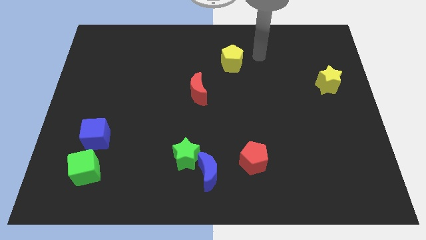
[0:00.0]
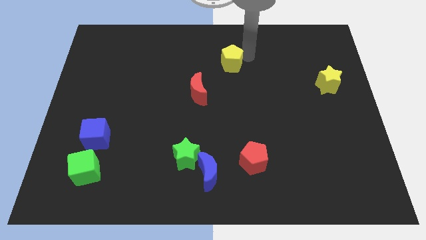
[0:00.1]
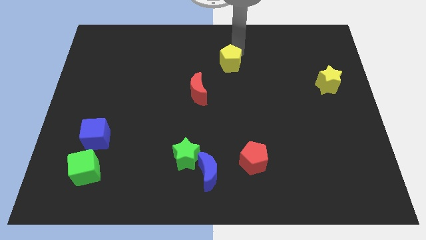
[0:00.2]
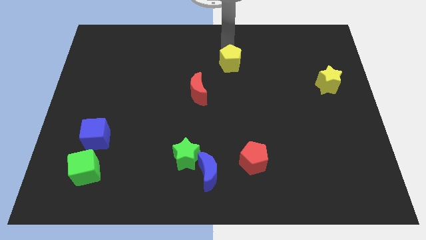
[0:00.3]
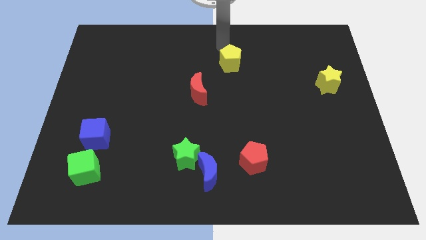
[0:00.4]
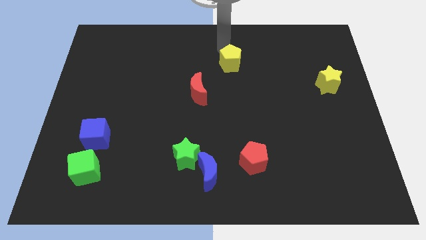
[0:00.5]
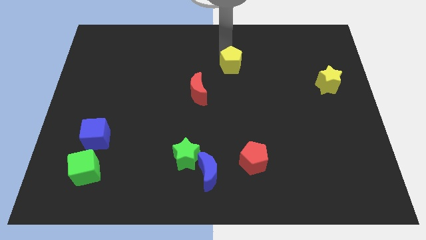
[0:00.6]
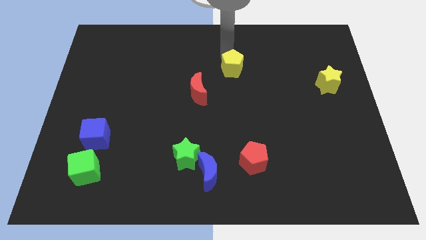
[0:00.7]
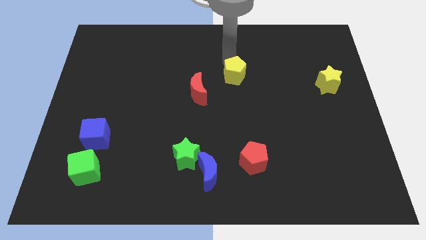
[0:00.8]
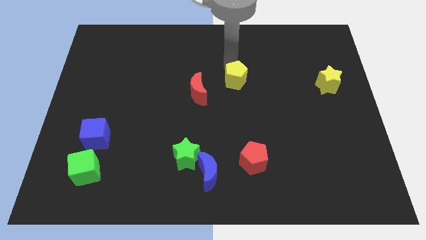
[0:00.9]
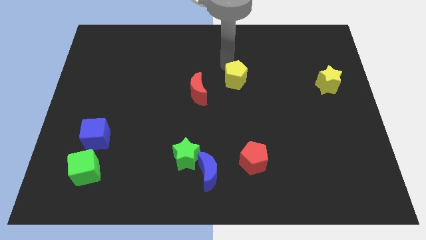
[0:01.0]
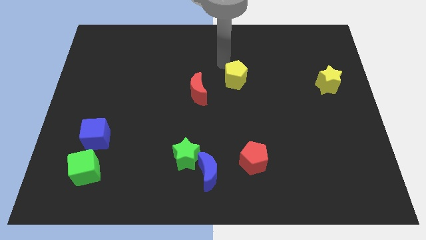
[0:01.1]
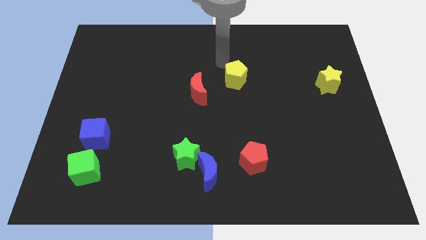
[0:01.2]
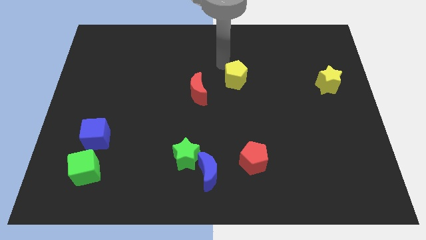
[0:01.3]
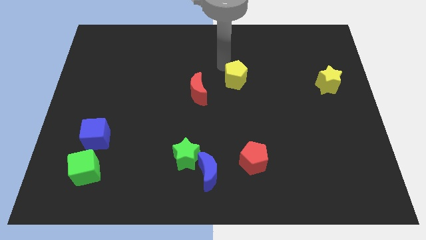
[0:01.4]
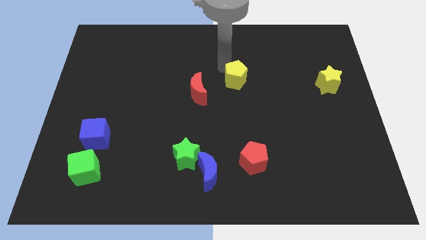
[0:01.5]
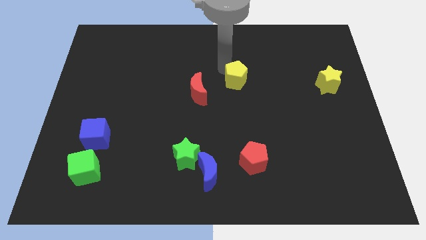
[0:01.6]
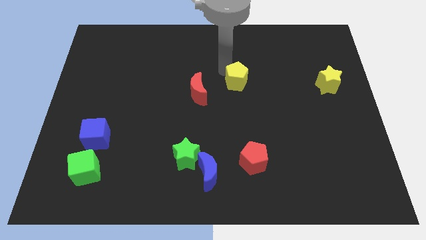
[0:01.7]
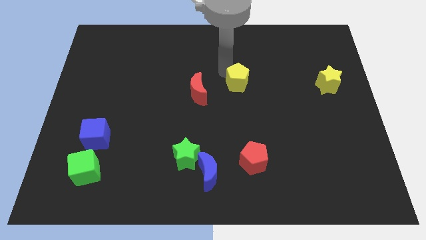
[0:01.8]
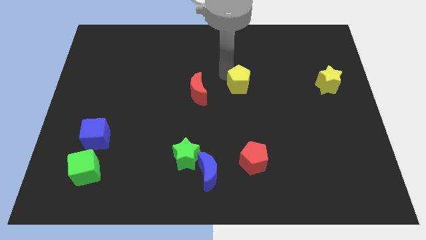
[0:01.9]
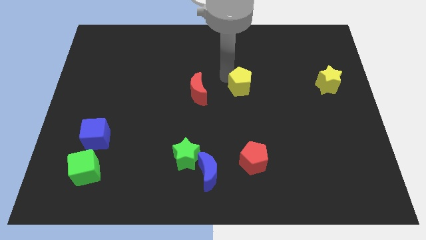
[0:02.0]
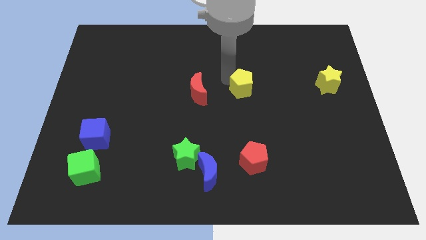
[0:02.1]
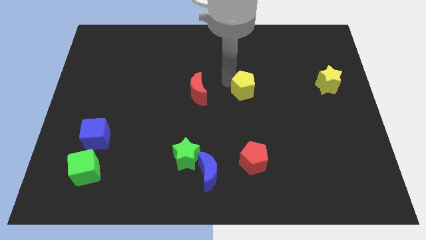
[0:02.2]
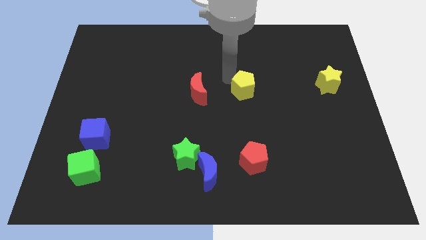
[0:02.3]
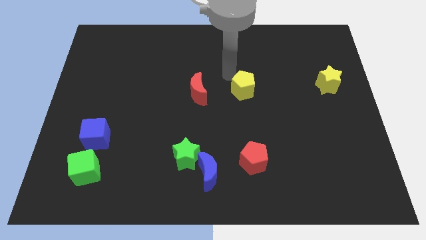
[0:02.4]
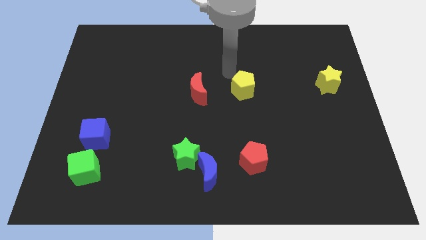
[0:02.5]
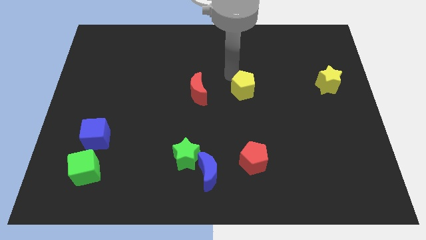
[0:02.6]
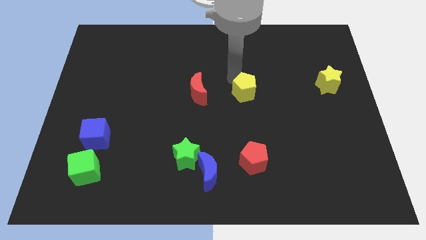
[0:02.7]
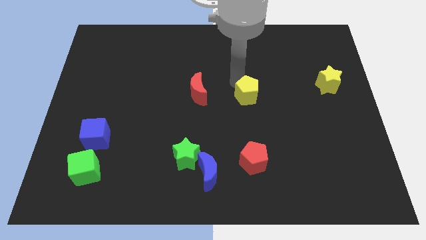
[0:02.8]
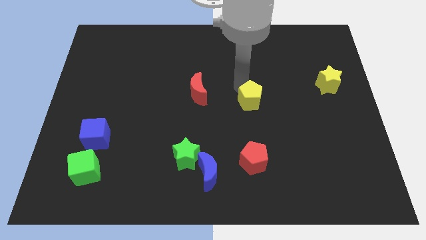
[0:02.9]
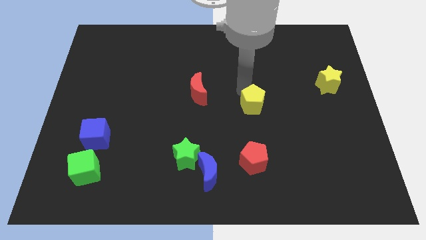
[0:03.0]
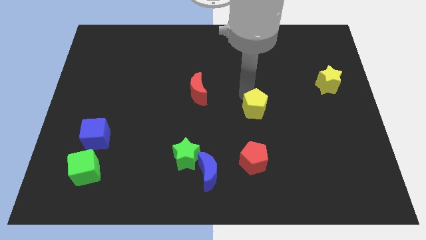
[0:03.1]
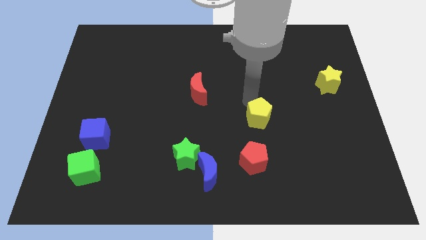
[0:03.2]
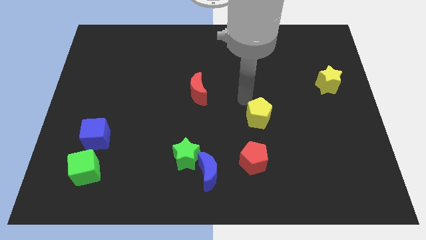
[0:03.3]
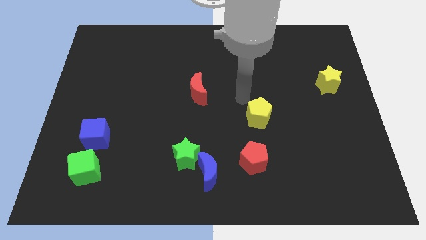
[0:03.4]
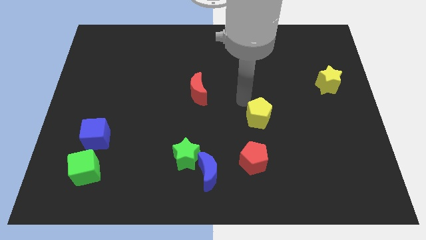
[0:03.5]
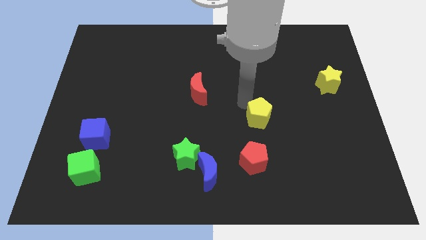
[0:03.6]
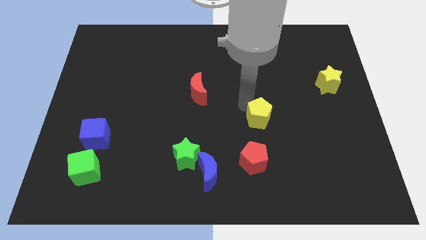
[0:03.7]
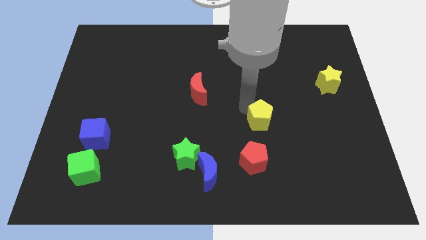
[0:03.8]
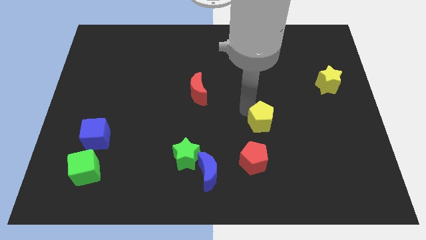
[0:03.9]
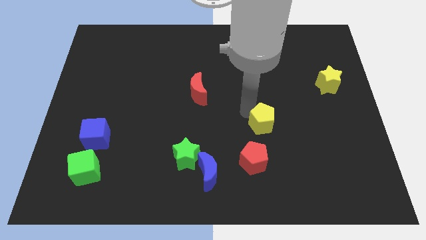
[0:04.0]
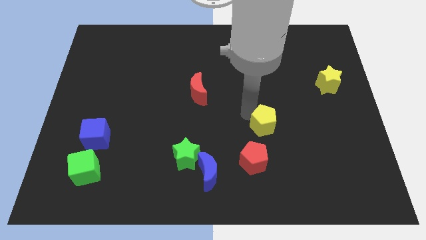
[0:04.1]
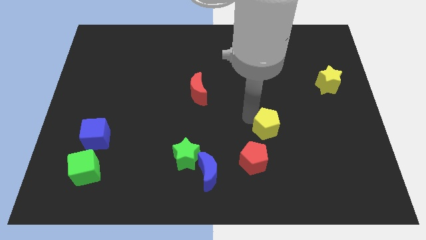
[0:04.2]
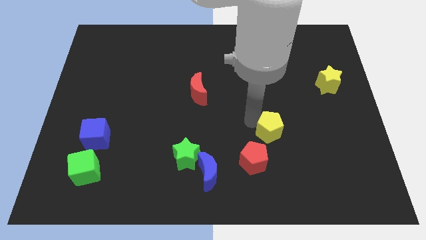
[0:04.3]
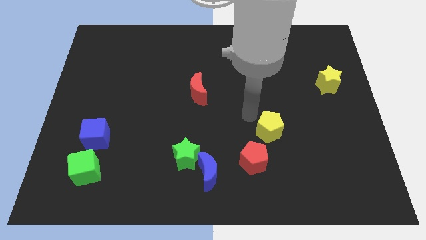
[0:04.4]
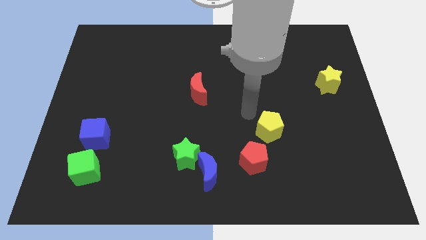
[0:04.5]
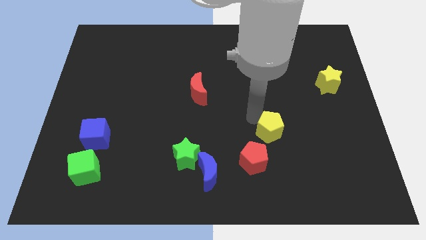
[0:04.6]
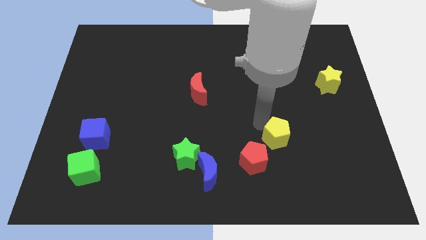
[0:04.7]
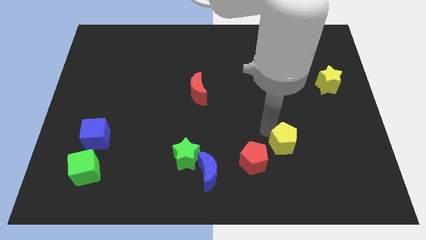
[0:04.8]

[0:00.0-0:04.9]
push the yellow pentagon to the right side of the red pentagon

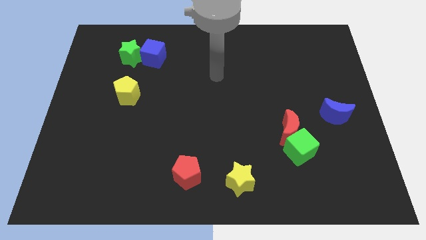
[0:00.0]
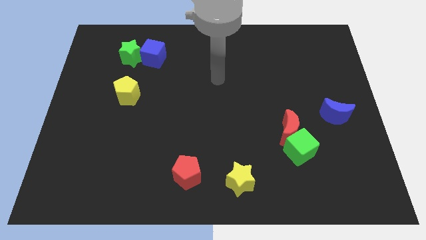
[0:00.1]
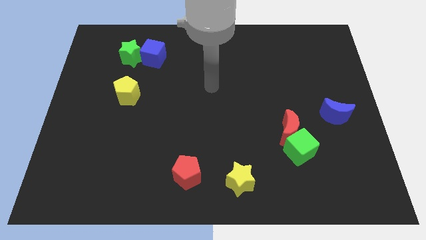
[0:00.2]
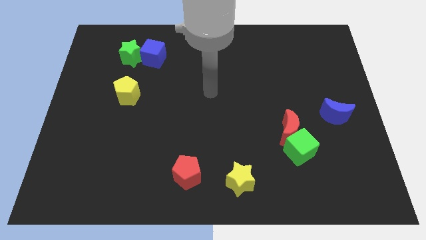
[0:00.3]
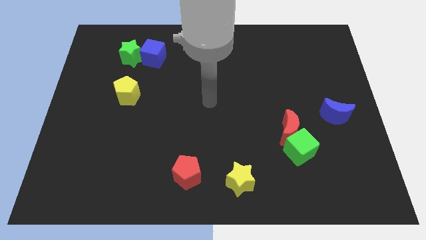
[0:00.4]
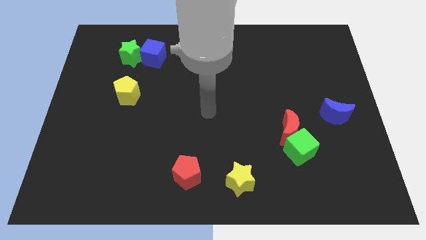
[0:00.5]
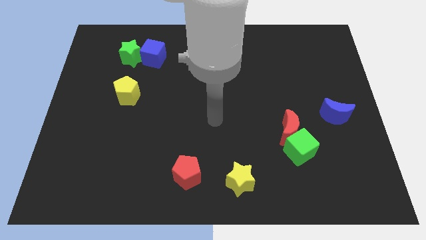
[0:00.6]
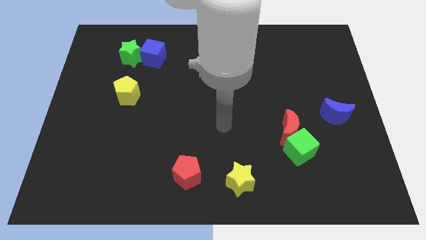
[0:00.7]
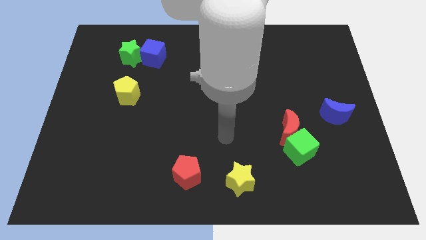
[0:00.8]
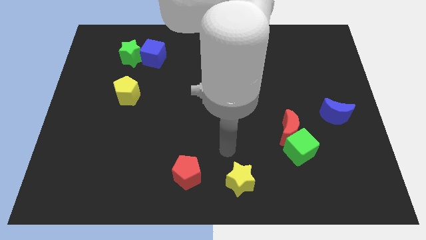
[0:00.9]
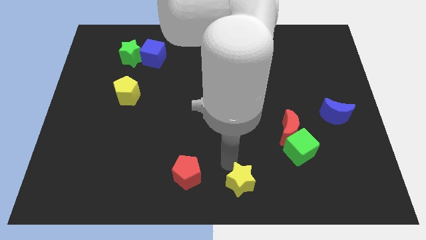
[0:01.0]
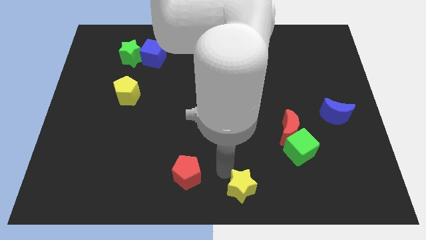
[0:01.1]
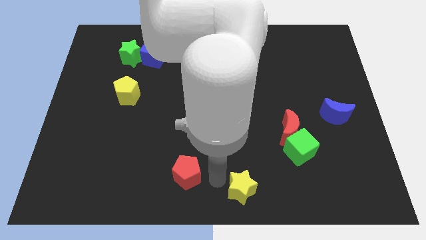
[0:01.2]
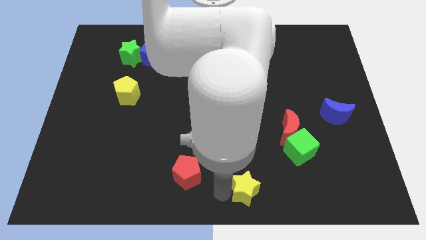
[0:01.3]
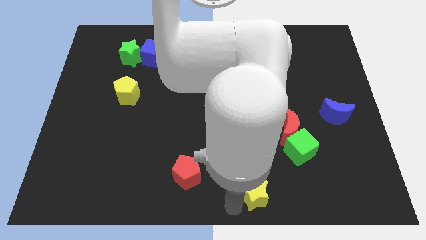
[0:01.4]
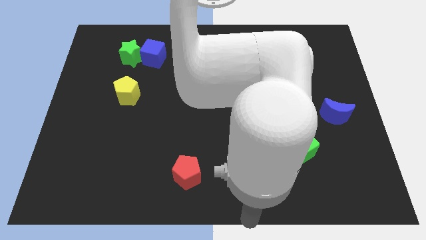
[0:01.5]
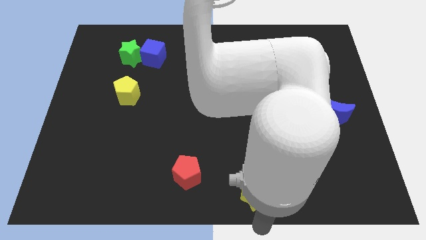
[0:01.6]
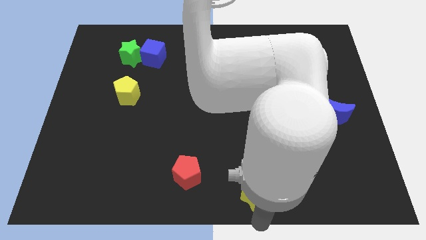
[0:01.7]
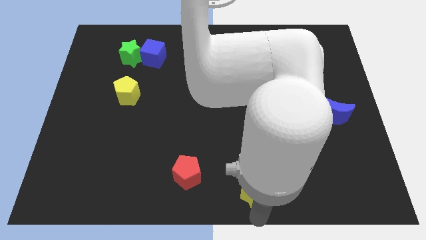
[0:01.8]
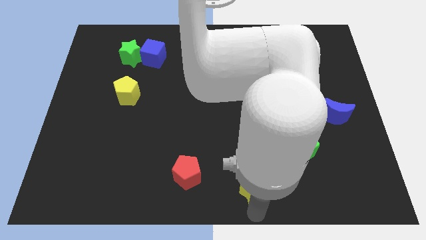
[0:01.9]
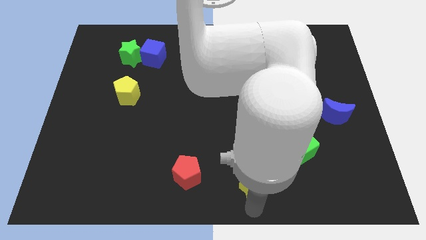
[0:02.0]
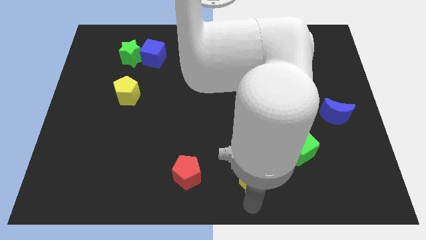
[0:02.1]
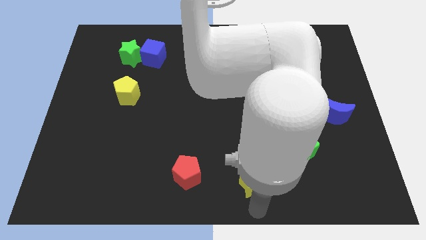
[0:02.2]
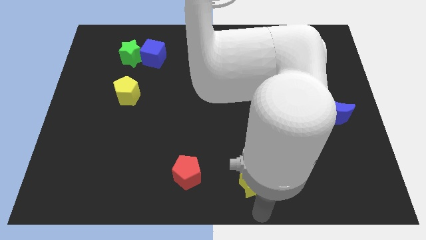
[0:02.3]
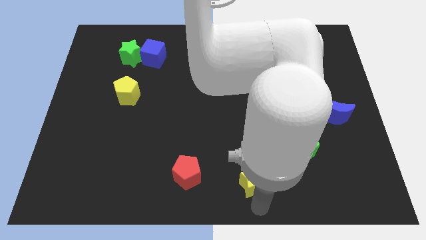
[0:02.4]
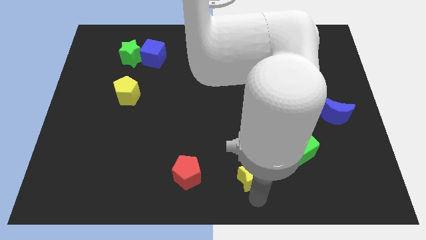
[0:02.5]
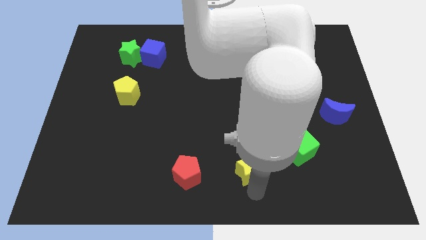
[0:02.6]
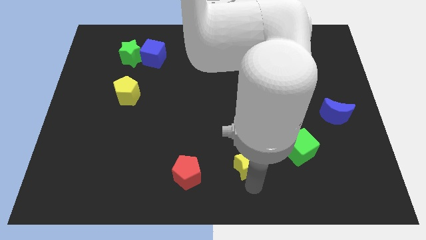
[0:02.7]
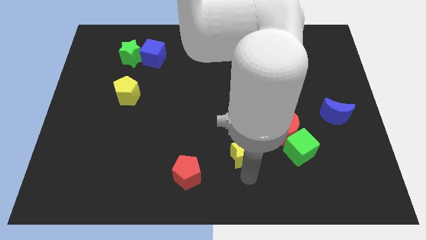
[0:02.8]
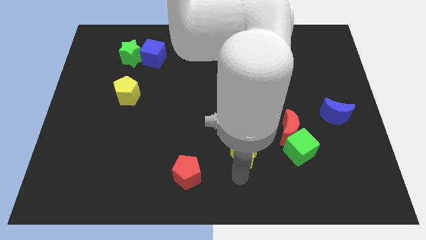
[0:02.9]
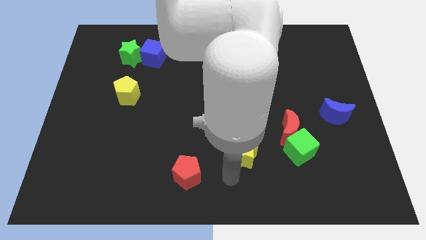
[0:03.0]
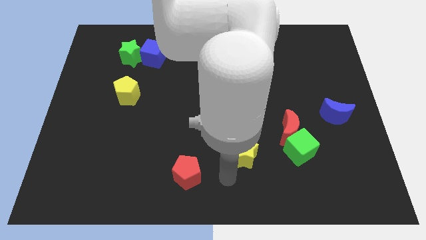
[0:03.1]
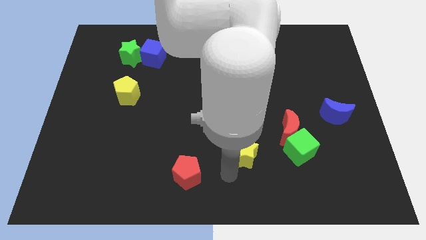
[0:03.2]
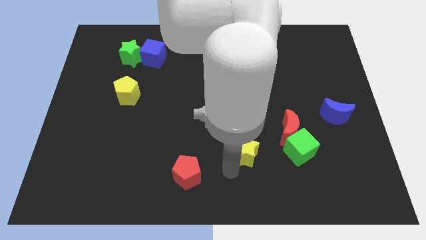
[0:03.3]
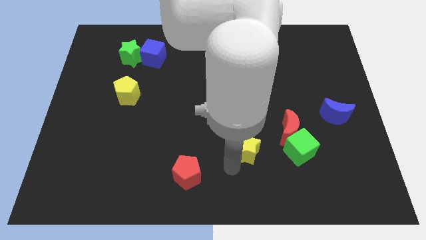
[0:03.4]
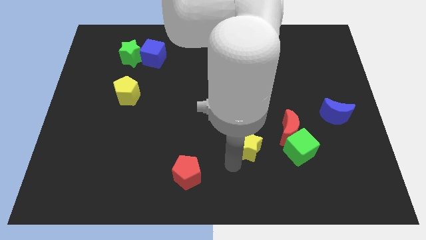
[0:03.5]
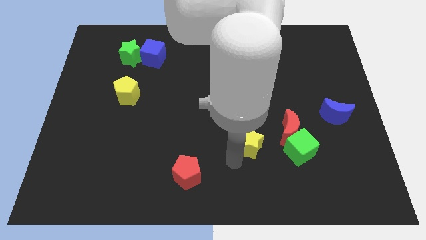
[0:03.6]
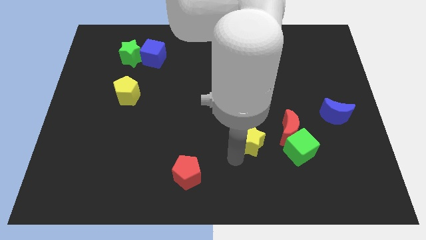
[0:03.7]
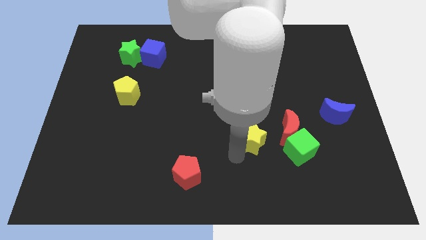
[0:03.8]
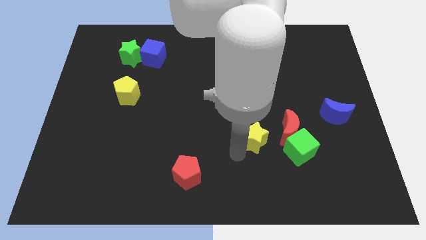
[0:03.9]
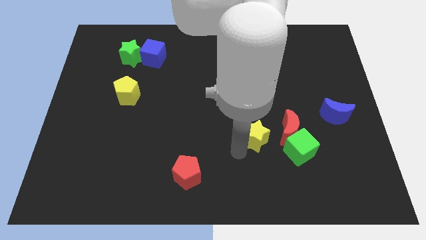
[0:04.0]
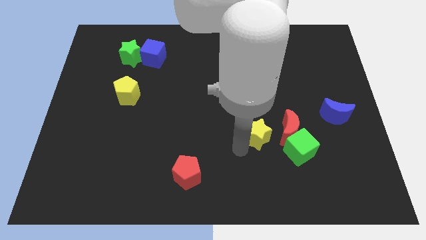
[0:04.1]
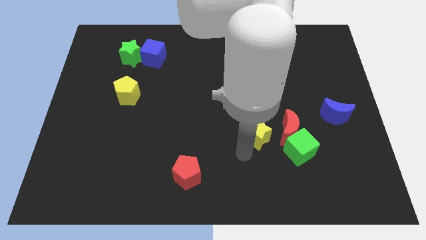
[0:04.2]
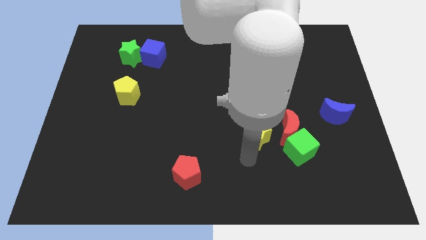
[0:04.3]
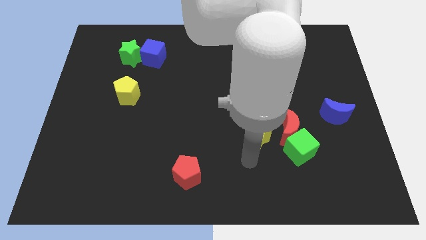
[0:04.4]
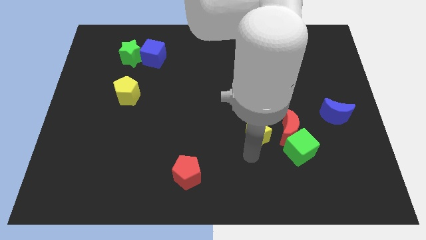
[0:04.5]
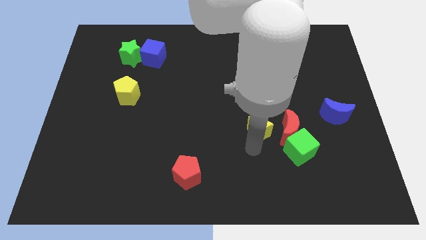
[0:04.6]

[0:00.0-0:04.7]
move the yellow star diagonally up and to the left of the red moon
